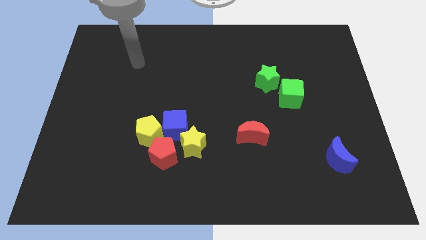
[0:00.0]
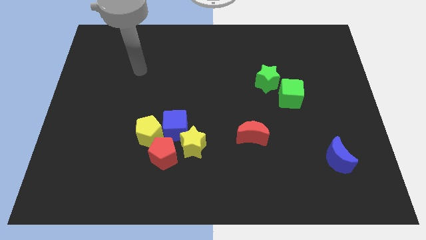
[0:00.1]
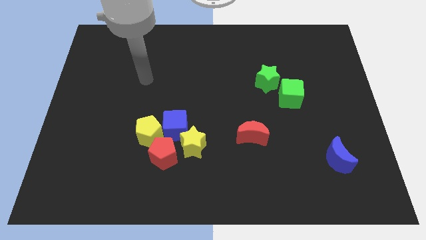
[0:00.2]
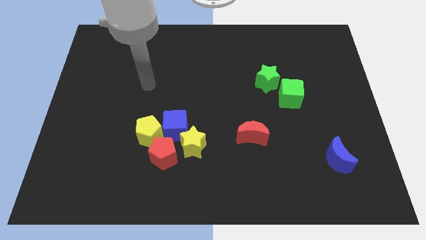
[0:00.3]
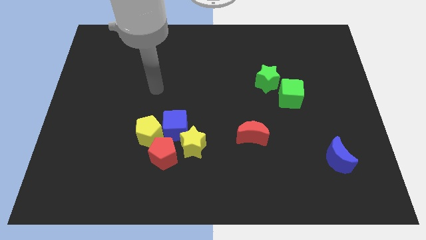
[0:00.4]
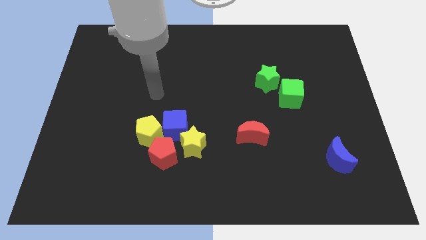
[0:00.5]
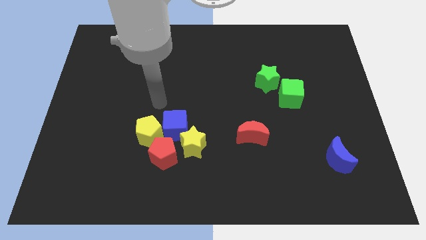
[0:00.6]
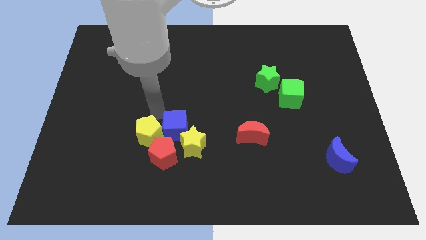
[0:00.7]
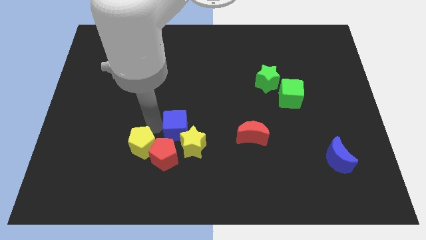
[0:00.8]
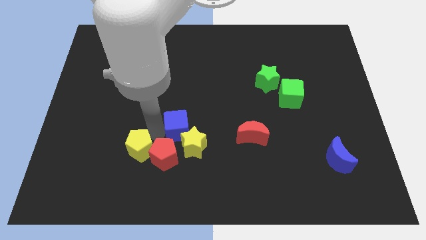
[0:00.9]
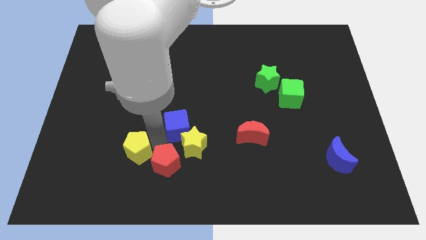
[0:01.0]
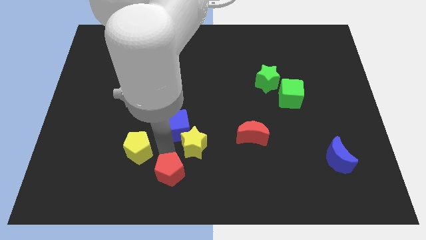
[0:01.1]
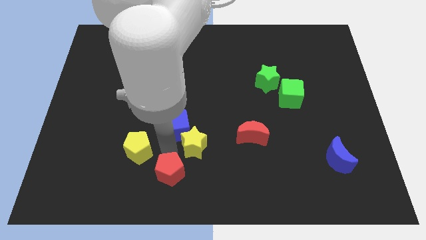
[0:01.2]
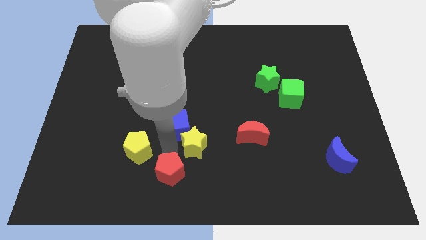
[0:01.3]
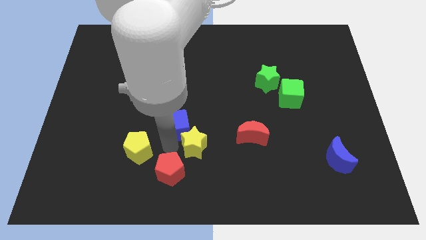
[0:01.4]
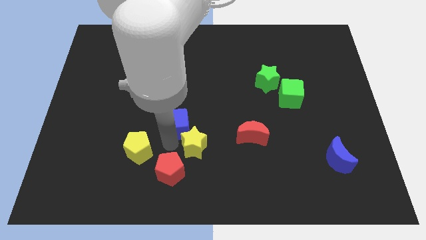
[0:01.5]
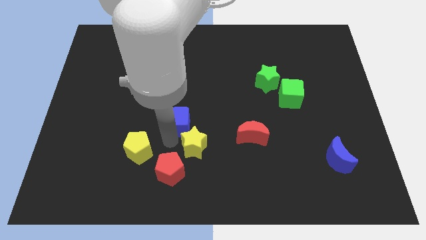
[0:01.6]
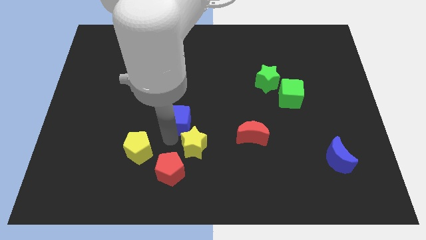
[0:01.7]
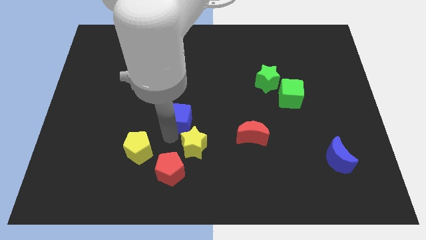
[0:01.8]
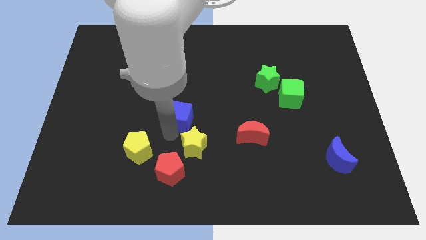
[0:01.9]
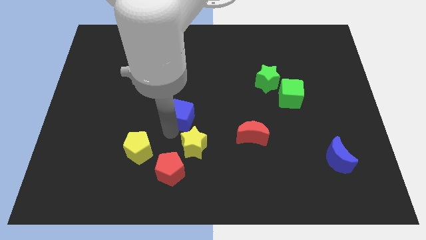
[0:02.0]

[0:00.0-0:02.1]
separate the blue cube from the clump

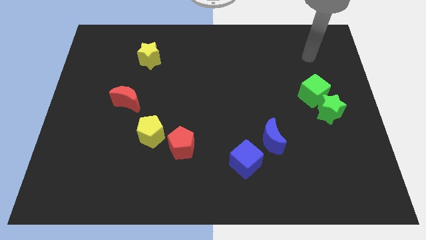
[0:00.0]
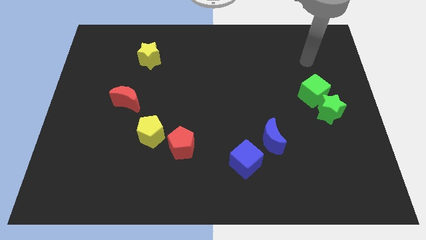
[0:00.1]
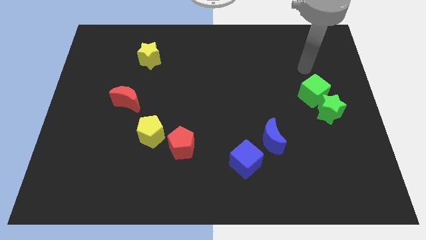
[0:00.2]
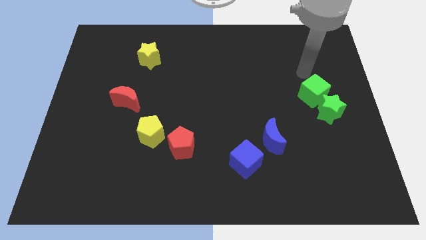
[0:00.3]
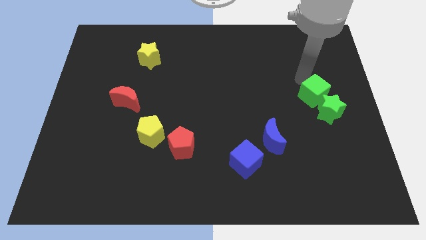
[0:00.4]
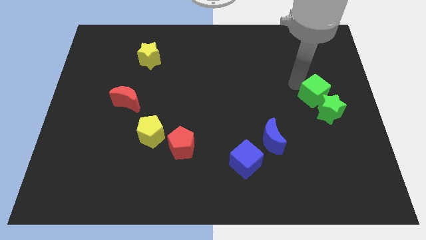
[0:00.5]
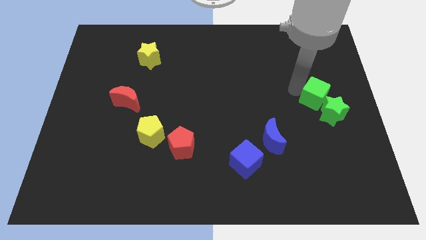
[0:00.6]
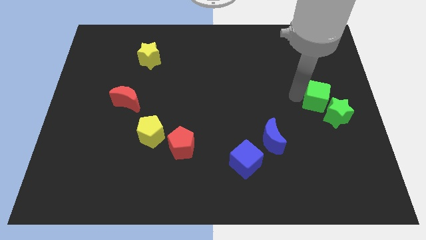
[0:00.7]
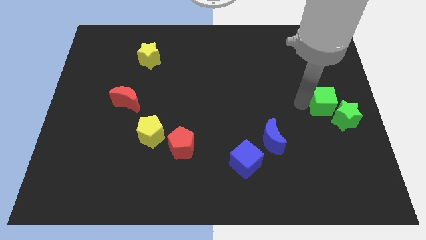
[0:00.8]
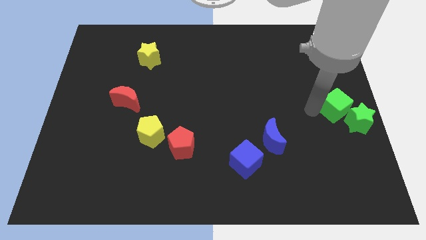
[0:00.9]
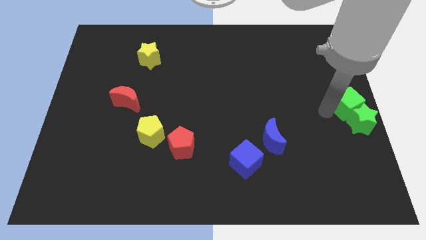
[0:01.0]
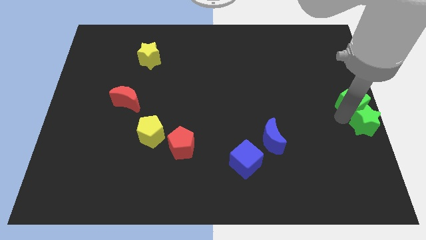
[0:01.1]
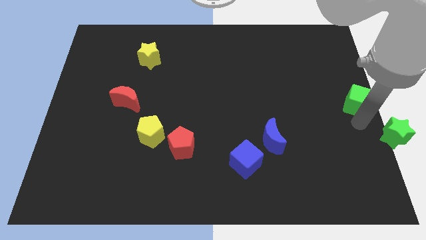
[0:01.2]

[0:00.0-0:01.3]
separate the green cube from the green star

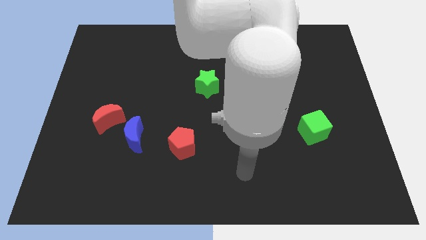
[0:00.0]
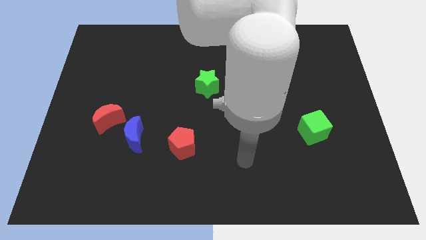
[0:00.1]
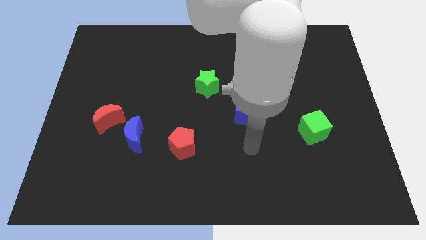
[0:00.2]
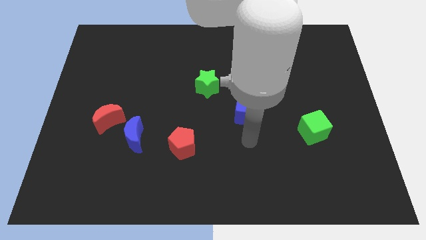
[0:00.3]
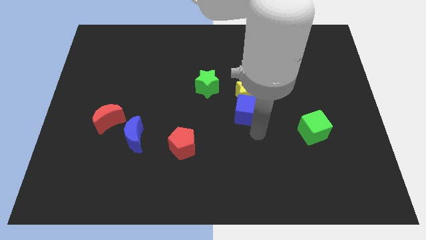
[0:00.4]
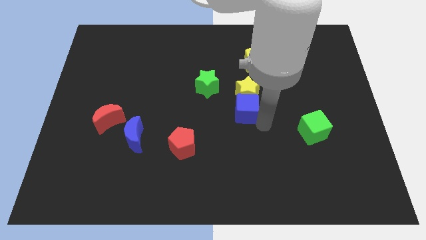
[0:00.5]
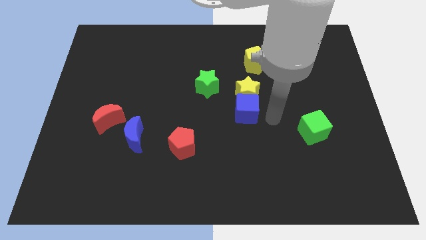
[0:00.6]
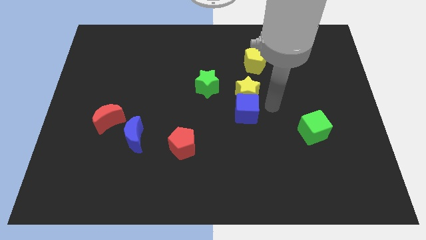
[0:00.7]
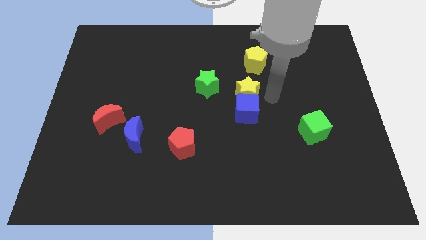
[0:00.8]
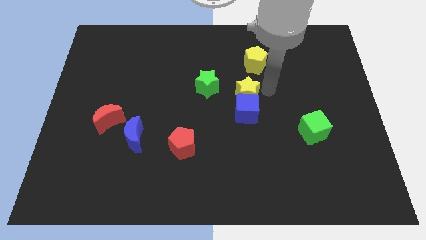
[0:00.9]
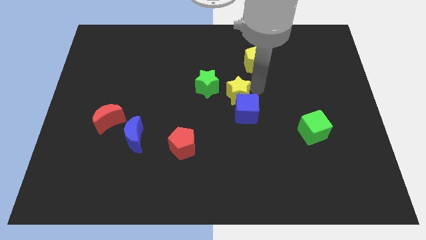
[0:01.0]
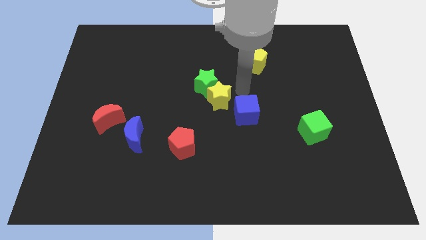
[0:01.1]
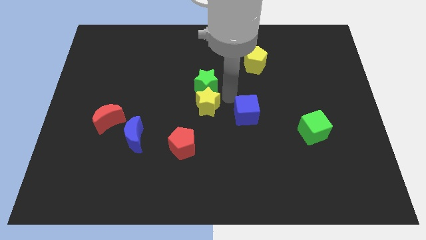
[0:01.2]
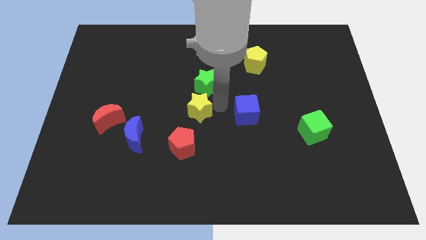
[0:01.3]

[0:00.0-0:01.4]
move the blue cube away from the yellow star

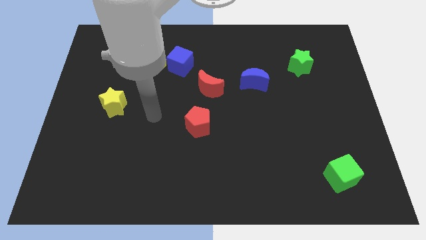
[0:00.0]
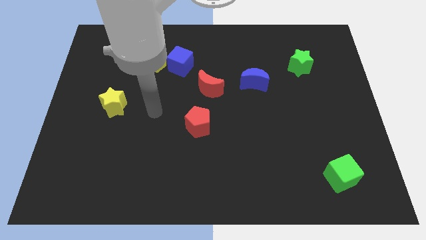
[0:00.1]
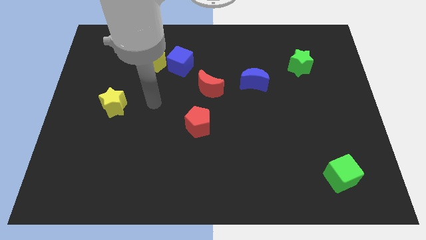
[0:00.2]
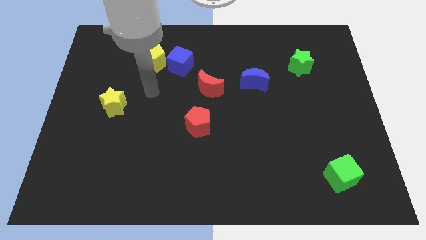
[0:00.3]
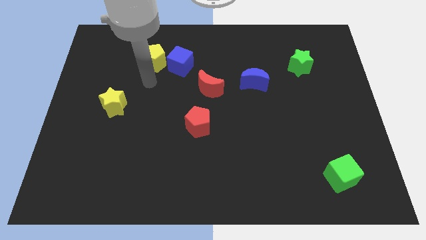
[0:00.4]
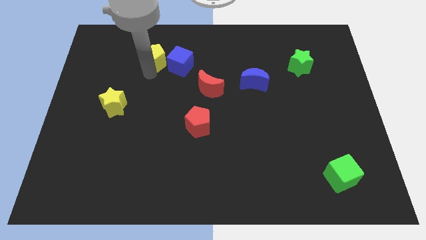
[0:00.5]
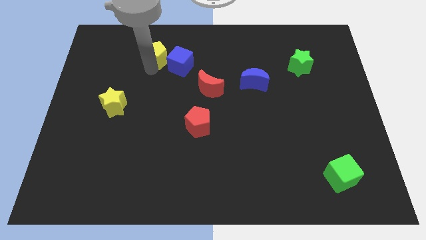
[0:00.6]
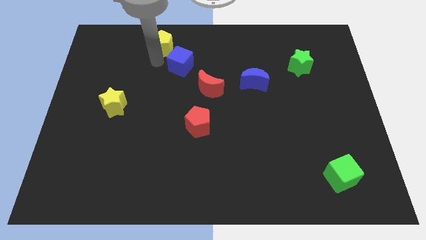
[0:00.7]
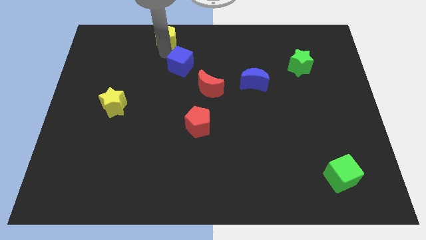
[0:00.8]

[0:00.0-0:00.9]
move the blue cube away from the yellow pentagon

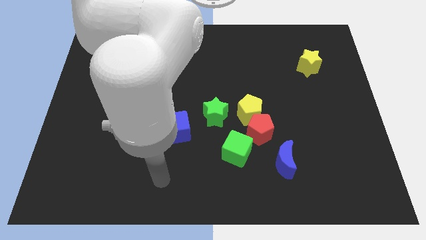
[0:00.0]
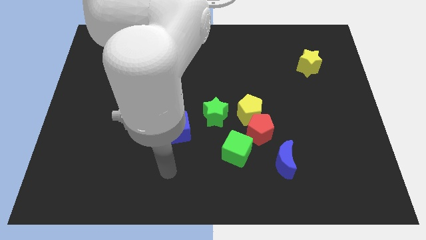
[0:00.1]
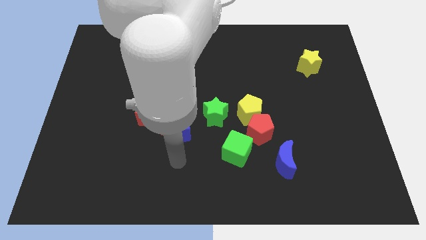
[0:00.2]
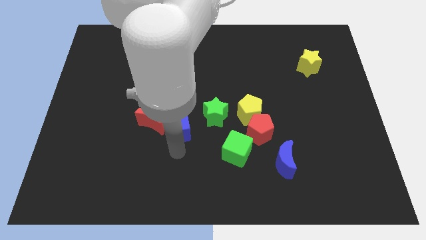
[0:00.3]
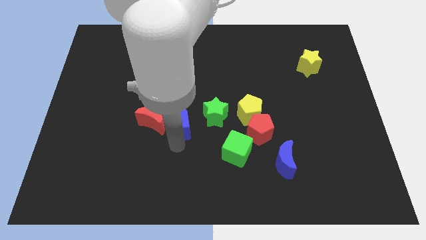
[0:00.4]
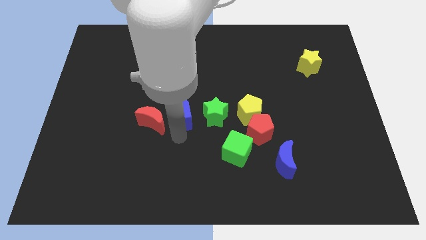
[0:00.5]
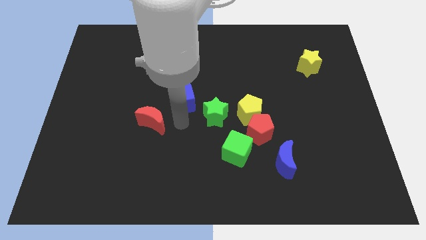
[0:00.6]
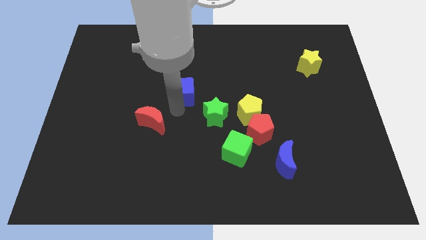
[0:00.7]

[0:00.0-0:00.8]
pull the red moon apart from the blue cube

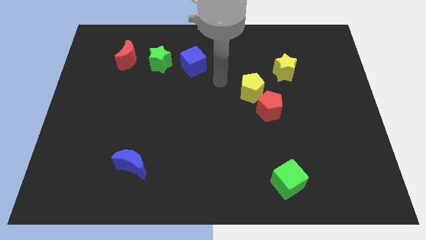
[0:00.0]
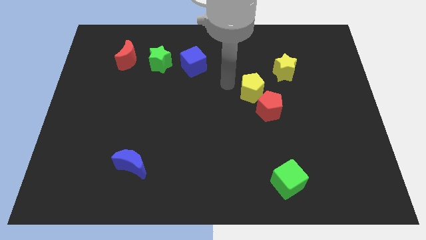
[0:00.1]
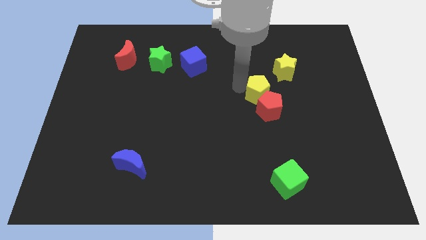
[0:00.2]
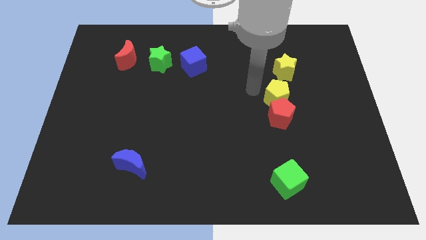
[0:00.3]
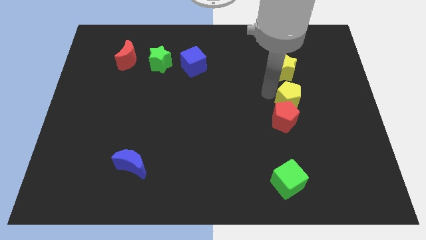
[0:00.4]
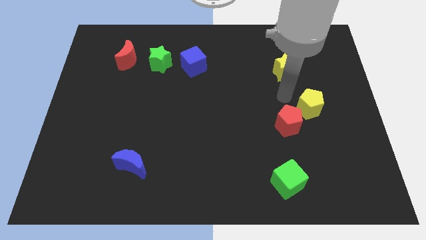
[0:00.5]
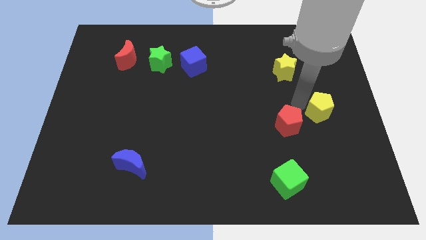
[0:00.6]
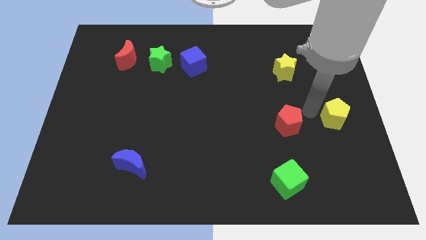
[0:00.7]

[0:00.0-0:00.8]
separate the red pentagon from the yellow pentagon

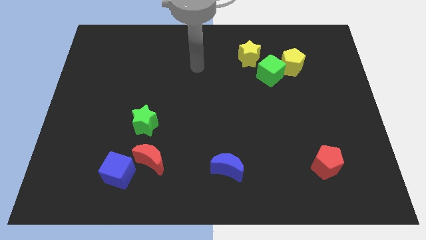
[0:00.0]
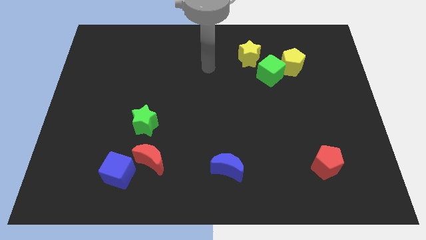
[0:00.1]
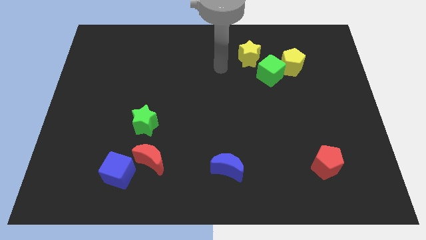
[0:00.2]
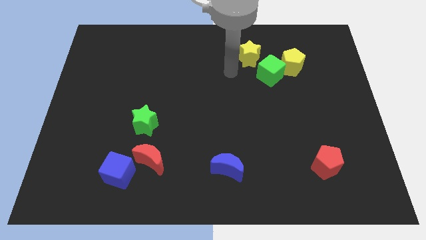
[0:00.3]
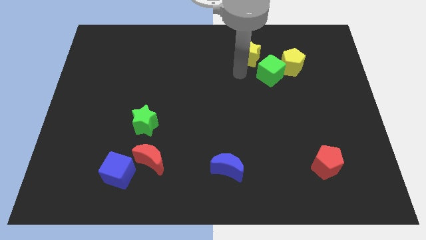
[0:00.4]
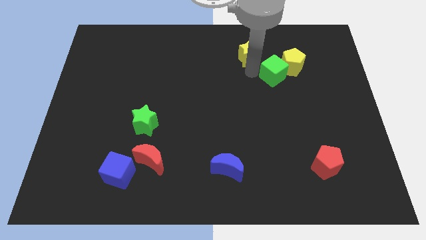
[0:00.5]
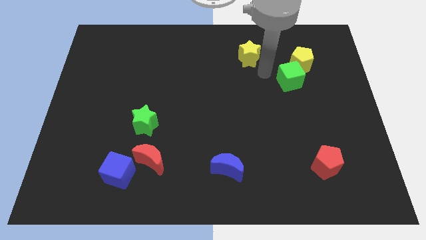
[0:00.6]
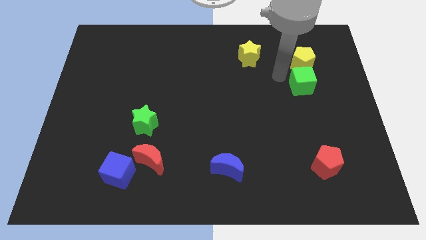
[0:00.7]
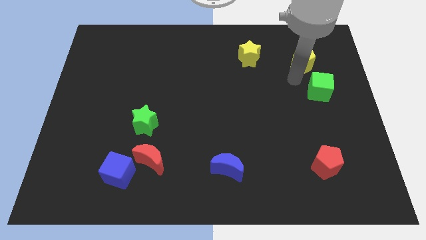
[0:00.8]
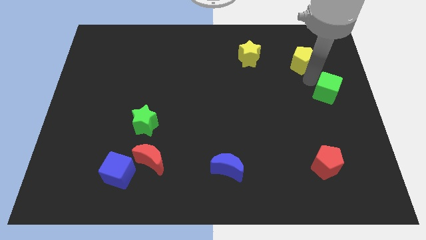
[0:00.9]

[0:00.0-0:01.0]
move the yellow pentagon away from the green cube

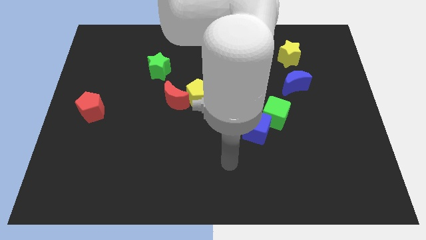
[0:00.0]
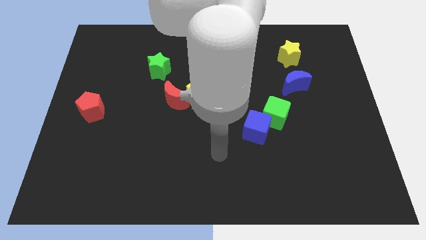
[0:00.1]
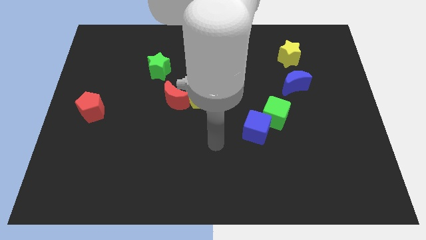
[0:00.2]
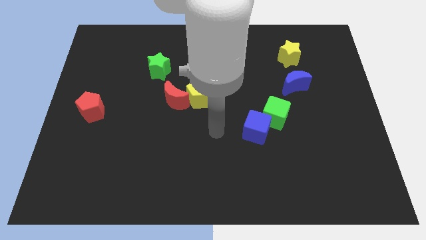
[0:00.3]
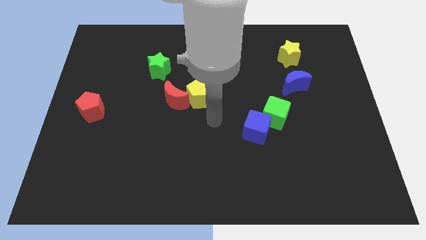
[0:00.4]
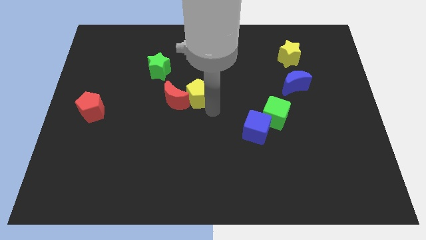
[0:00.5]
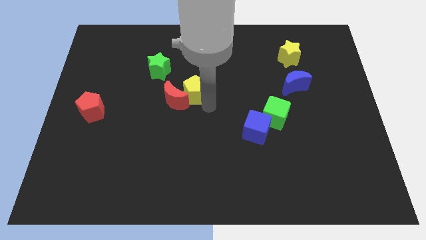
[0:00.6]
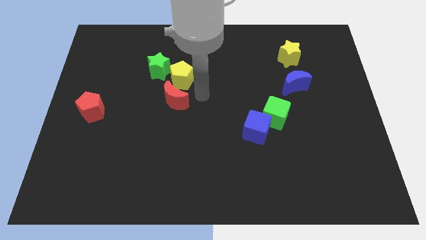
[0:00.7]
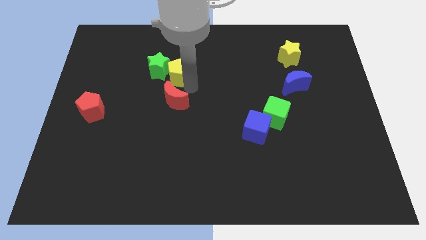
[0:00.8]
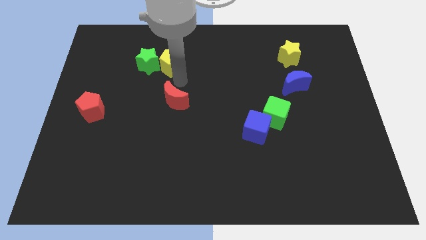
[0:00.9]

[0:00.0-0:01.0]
separate the red moon from the yellow pentagon
